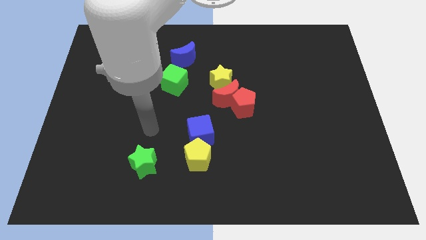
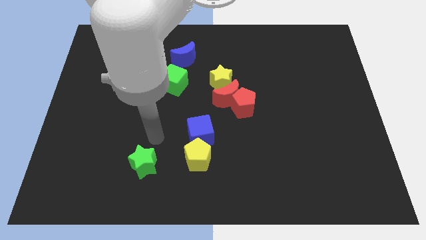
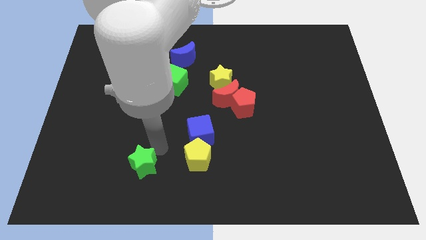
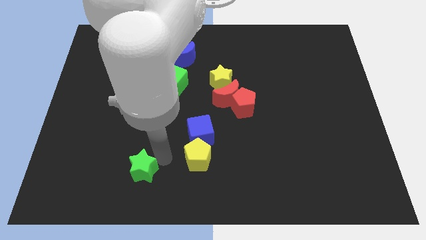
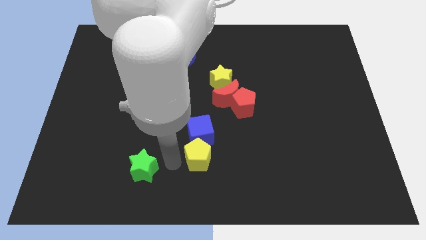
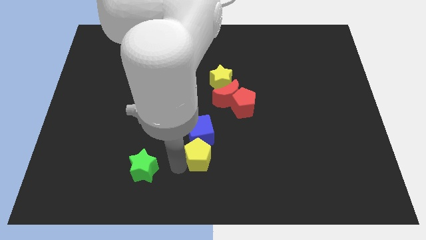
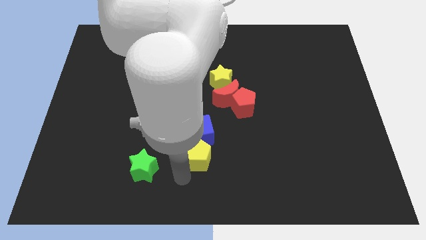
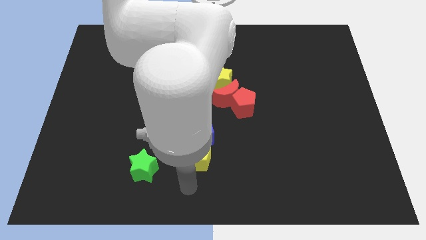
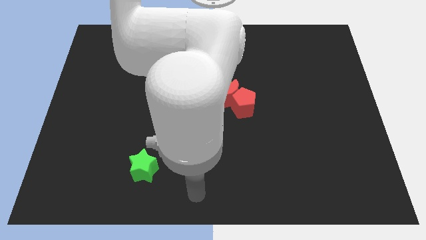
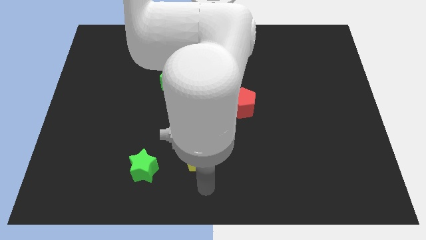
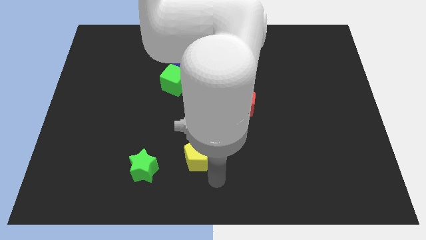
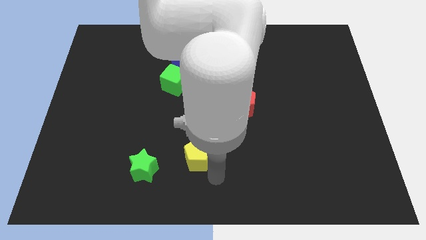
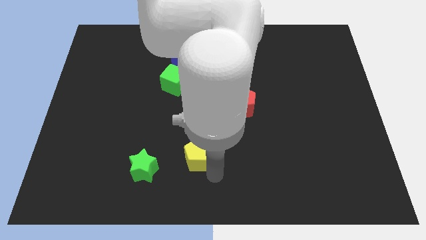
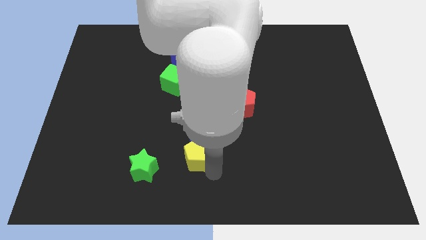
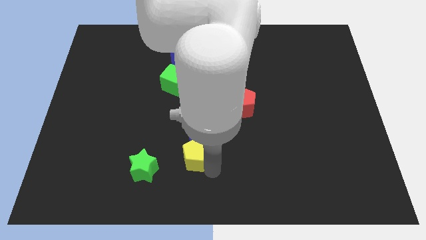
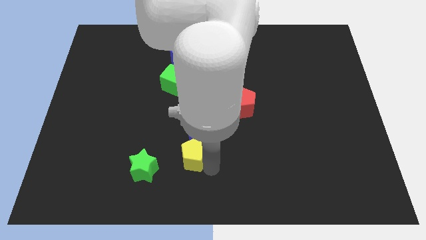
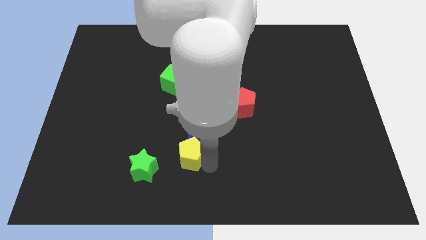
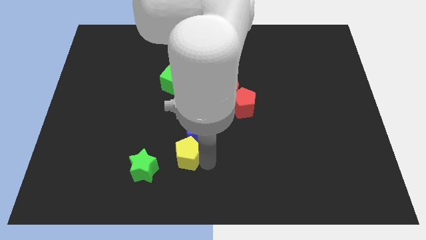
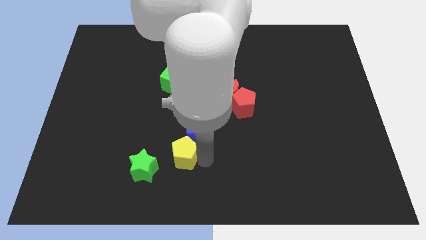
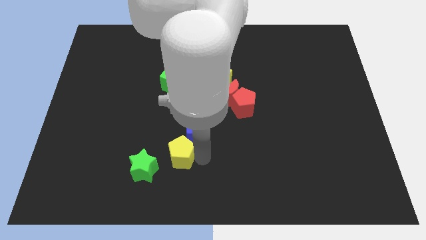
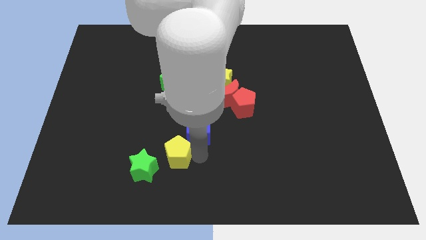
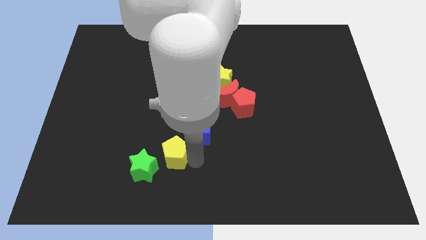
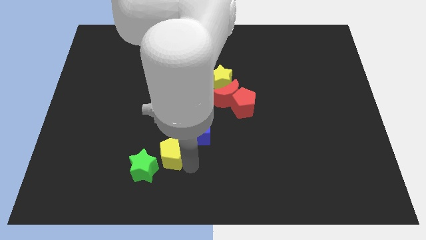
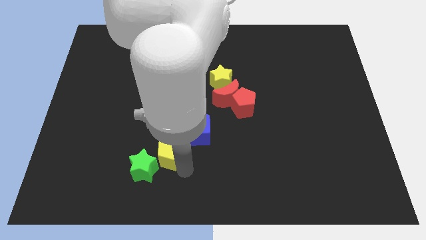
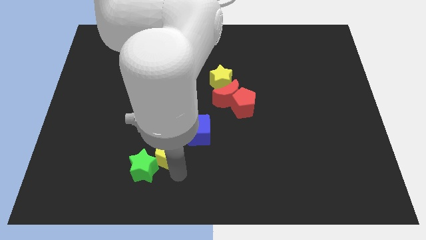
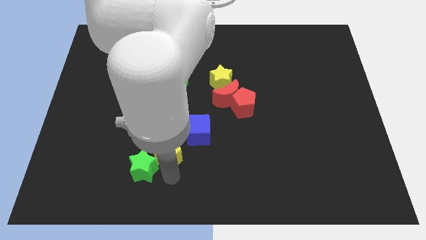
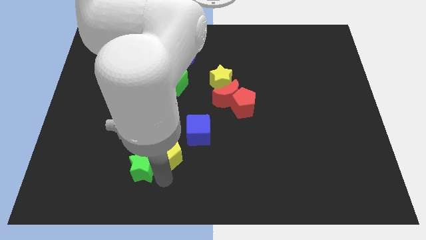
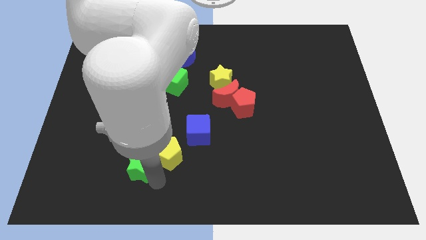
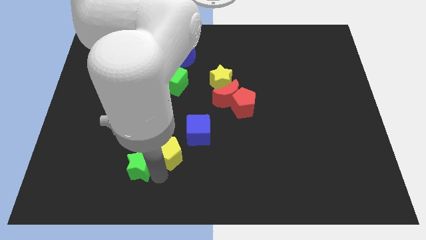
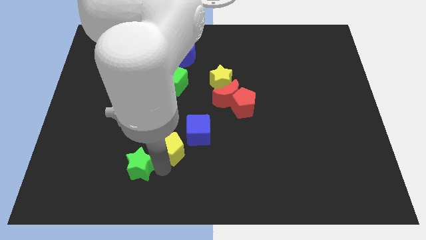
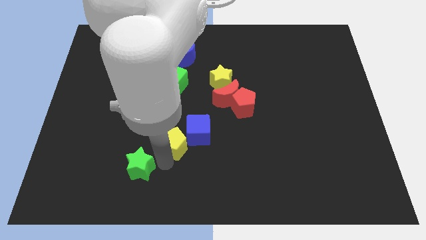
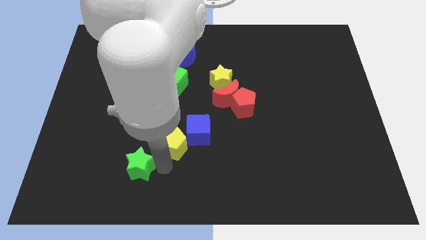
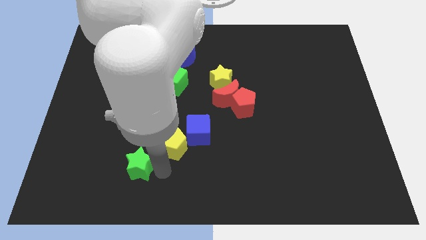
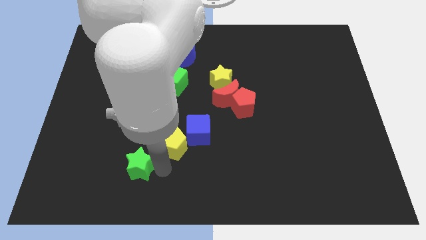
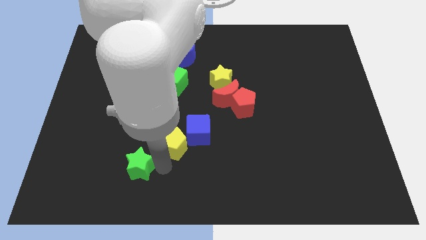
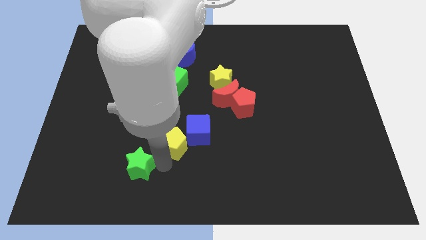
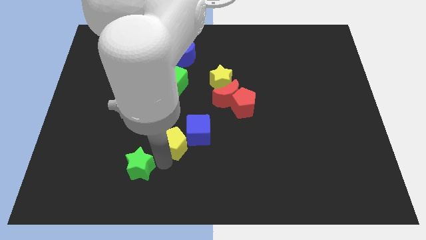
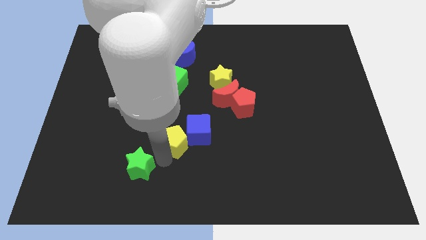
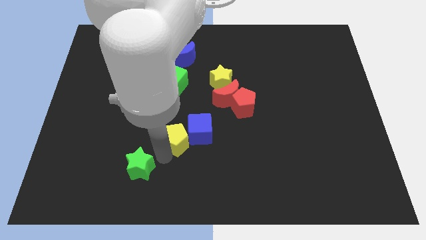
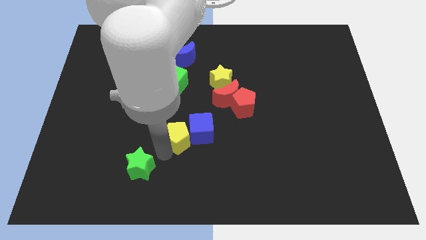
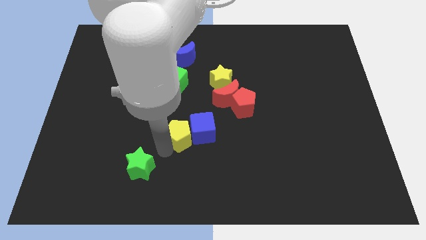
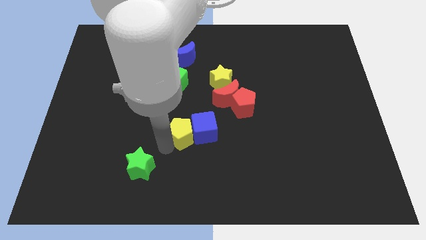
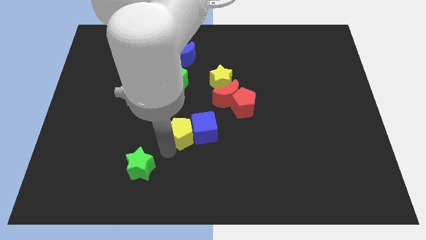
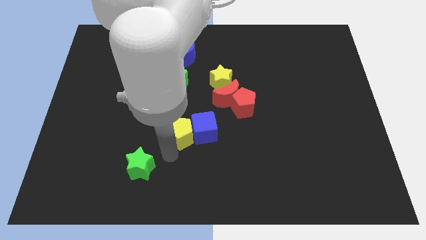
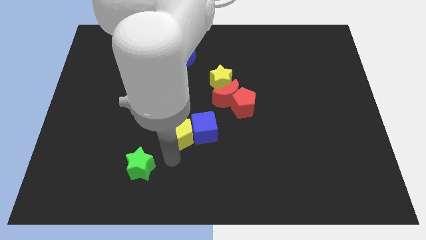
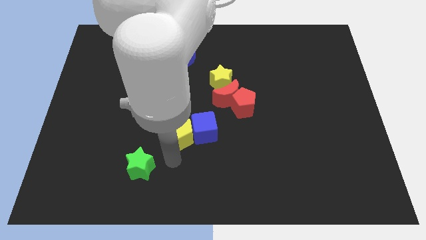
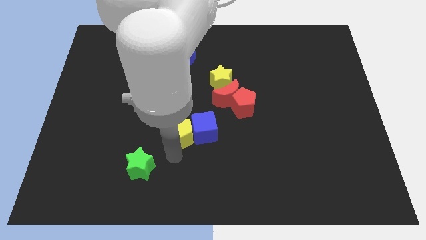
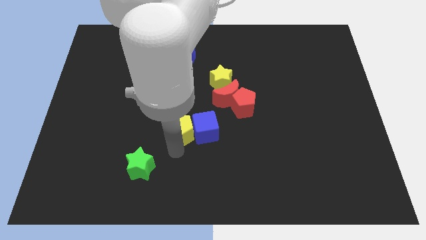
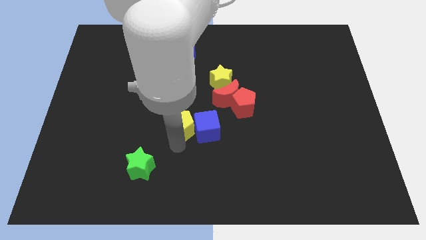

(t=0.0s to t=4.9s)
slightly move the yellow pentagon up

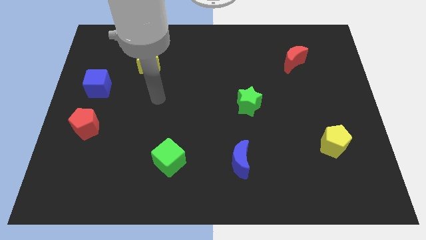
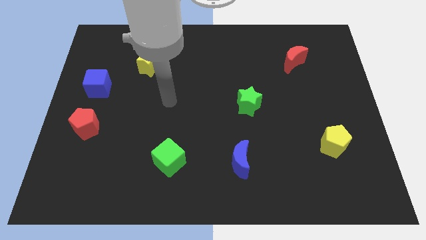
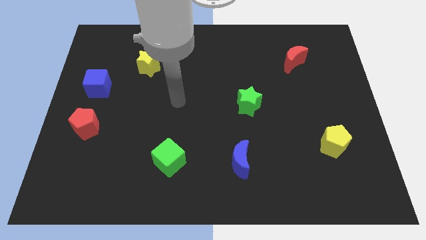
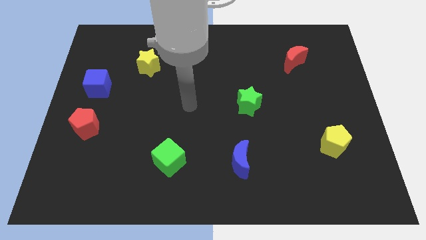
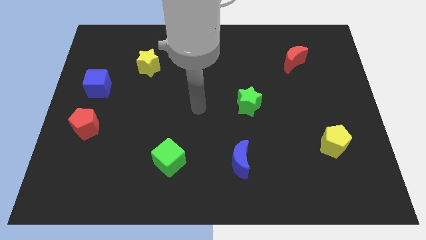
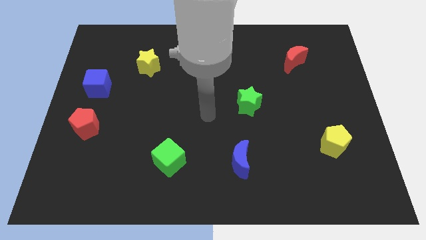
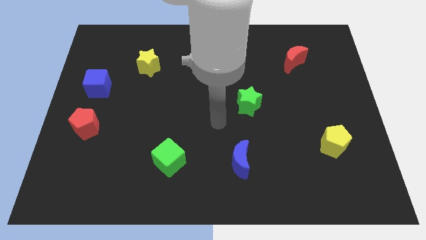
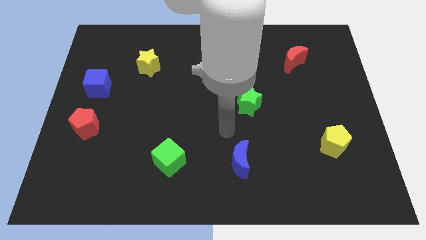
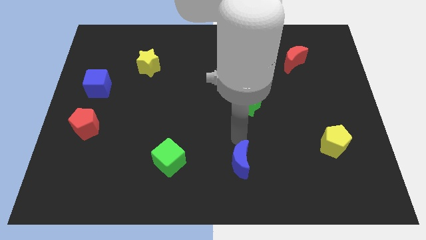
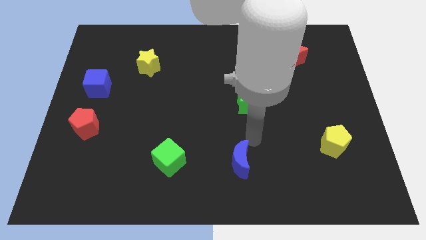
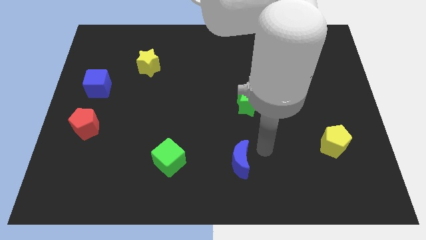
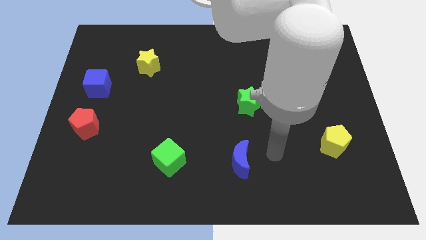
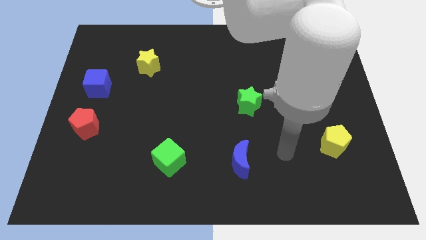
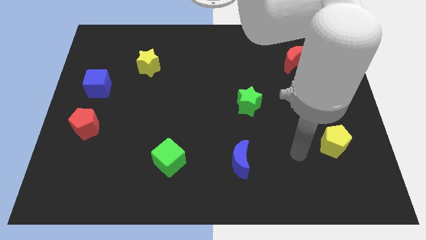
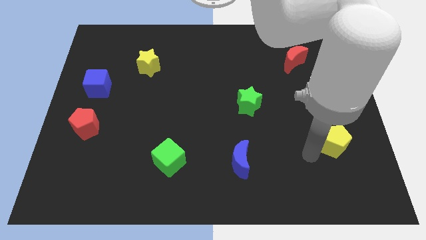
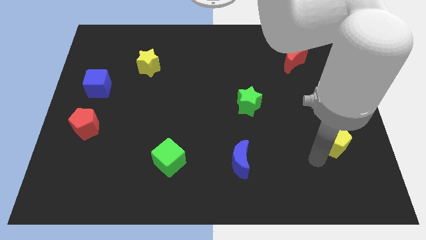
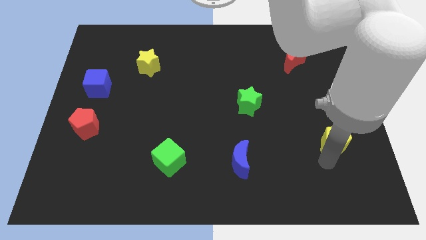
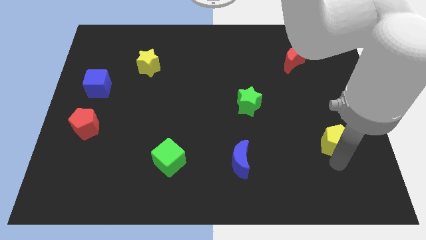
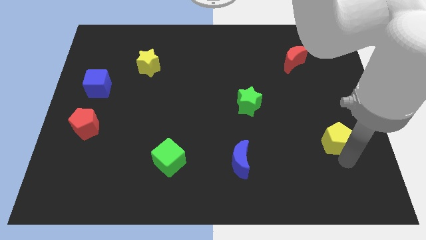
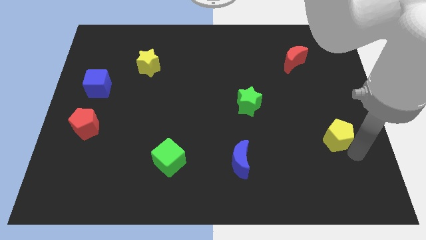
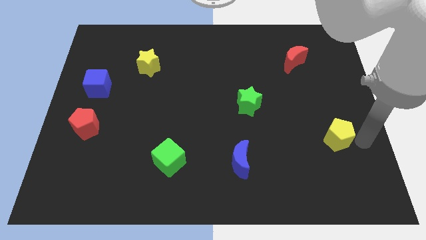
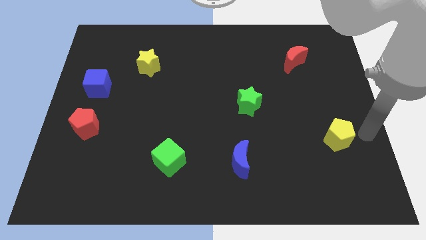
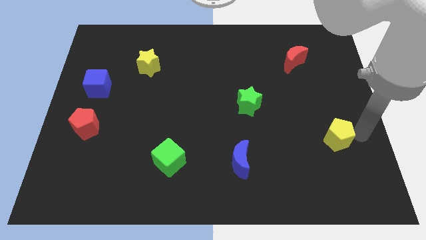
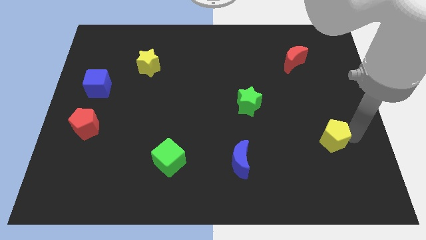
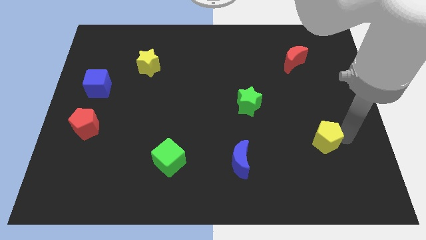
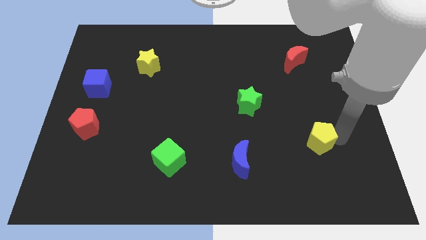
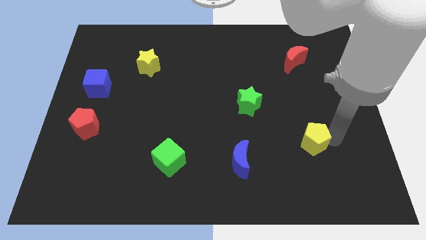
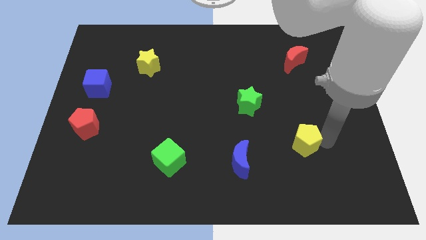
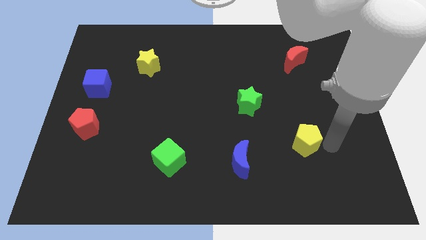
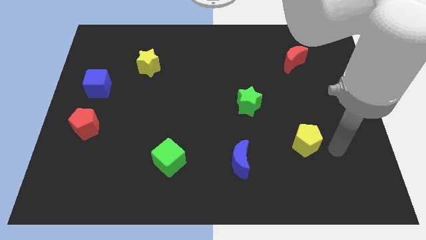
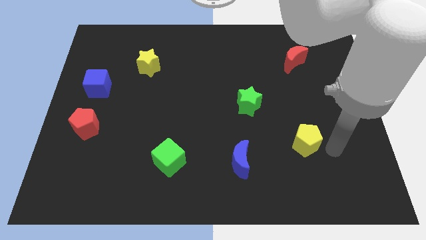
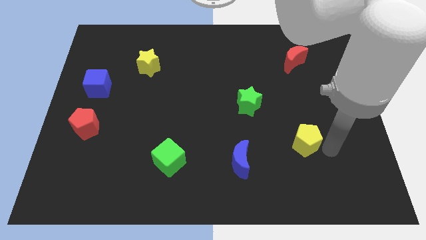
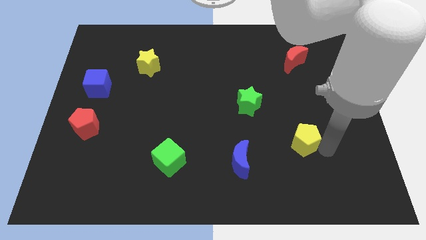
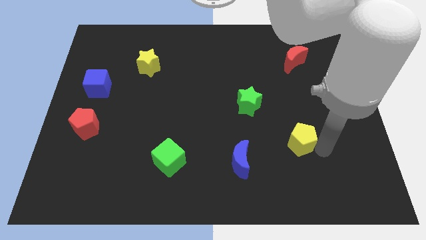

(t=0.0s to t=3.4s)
move the yellow pentagon a bit left
